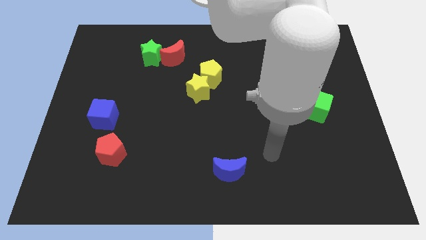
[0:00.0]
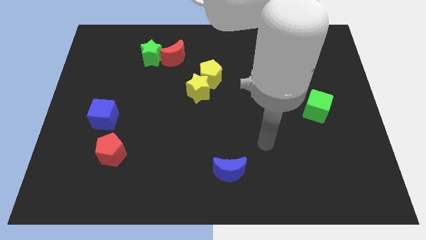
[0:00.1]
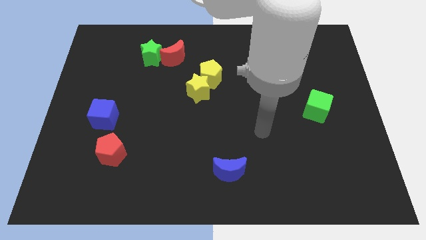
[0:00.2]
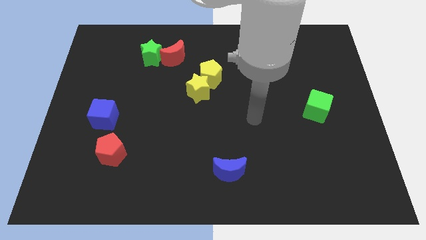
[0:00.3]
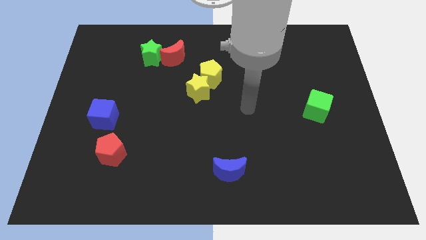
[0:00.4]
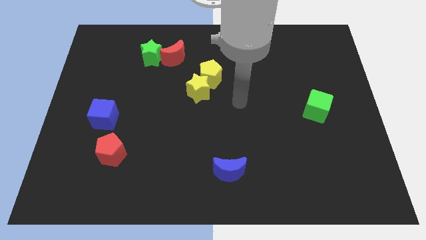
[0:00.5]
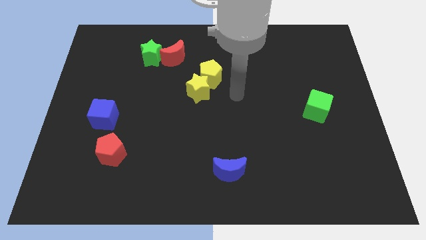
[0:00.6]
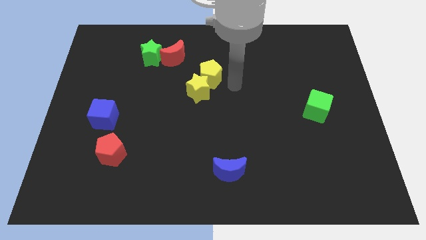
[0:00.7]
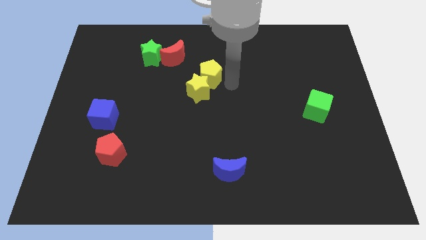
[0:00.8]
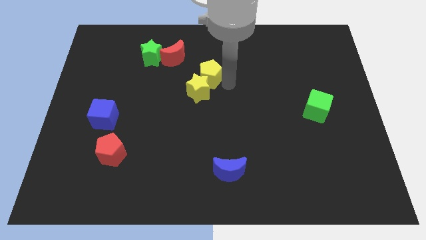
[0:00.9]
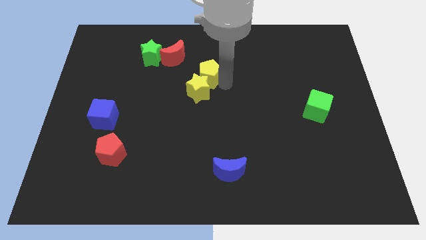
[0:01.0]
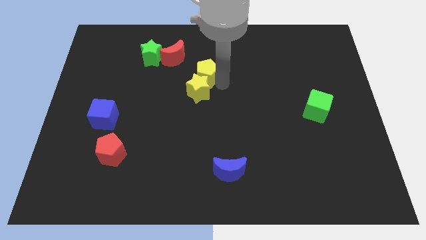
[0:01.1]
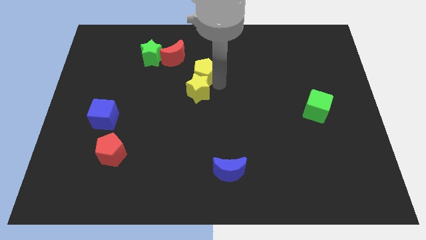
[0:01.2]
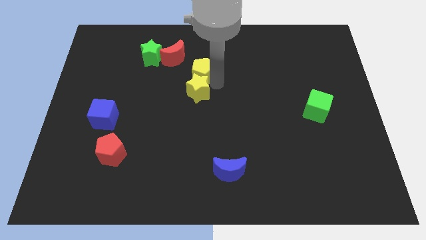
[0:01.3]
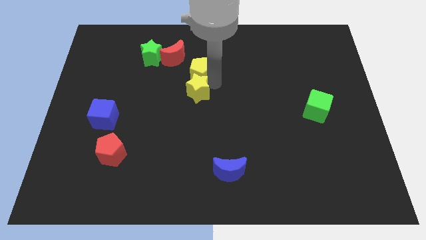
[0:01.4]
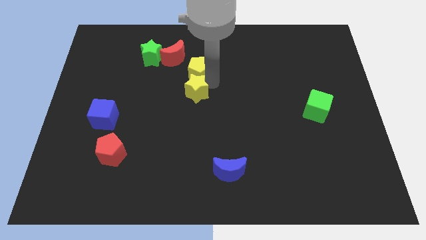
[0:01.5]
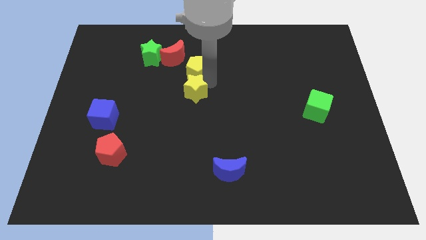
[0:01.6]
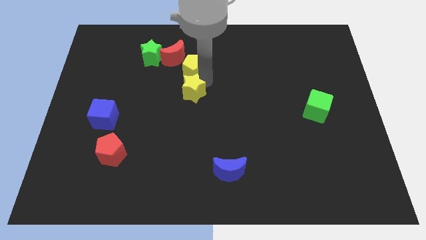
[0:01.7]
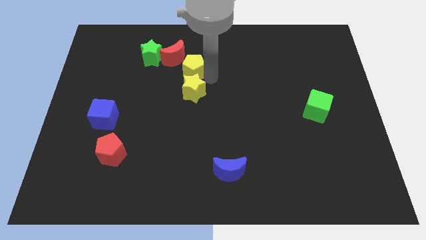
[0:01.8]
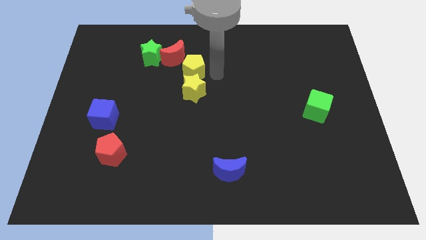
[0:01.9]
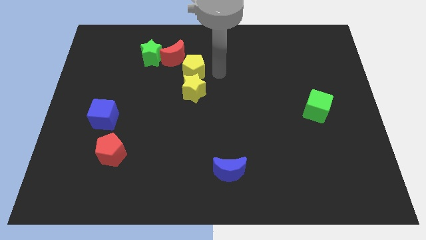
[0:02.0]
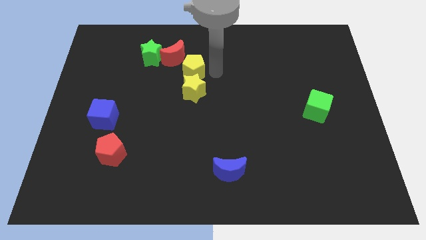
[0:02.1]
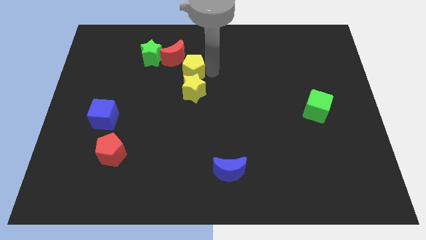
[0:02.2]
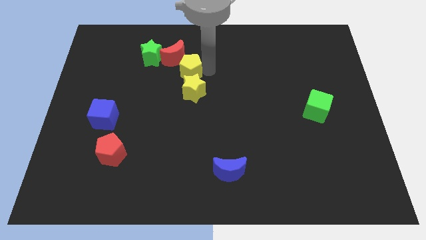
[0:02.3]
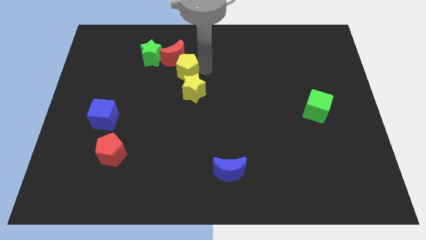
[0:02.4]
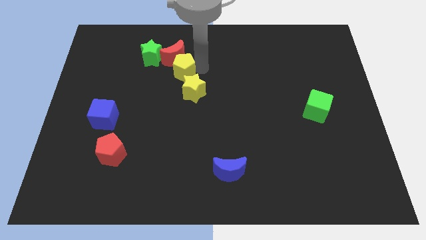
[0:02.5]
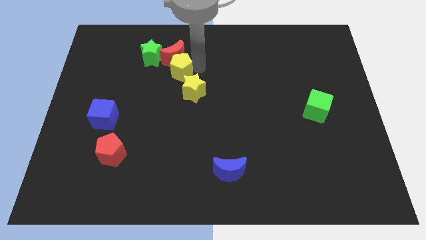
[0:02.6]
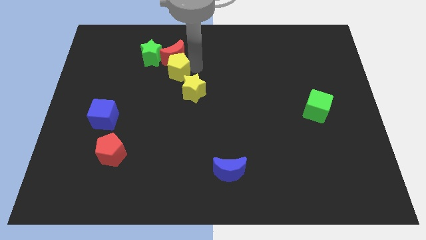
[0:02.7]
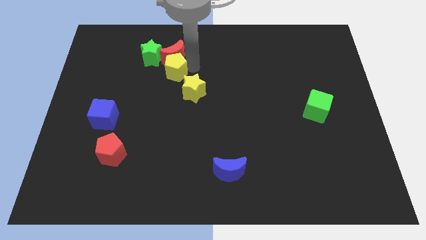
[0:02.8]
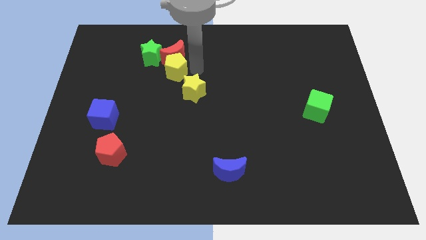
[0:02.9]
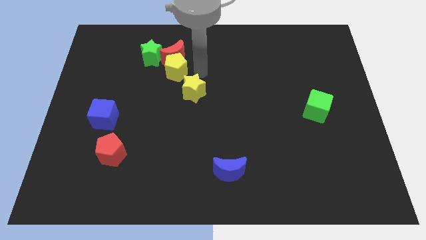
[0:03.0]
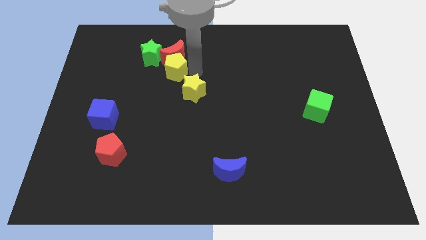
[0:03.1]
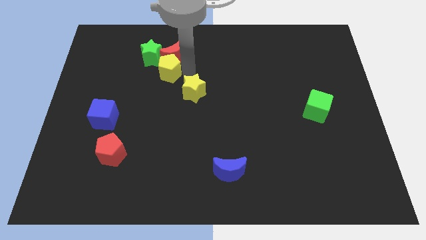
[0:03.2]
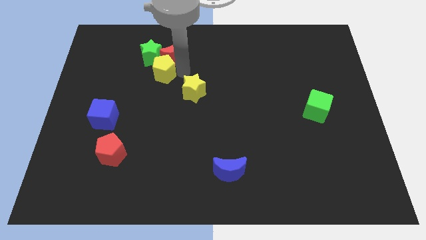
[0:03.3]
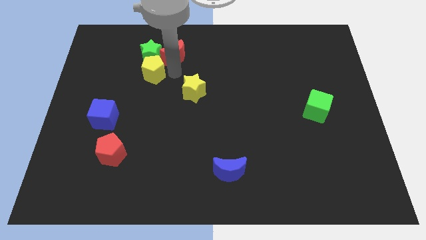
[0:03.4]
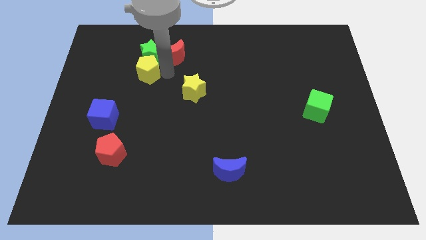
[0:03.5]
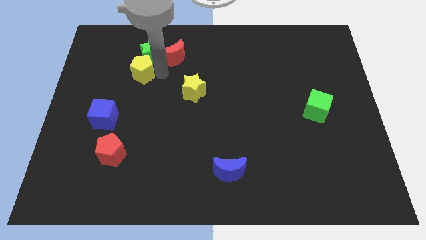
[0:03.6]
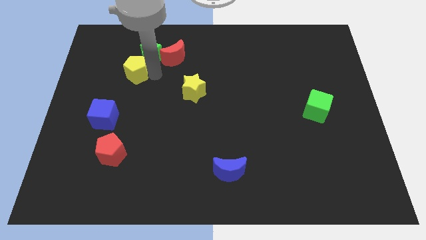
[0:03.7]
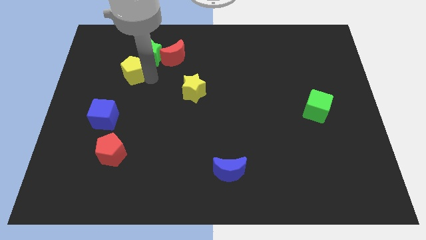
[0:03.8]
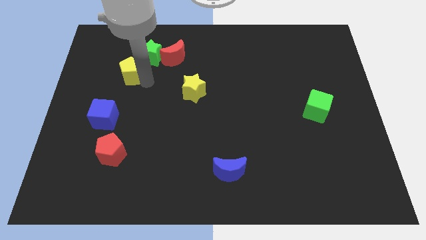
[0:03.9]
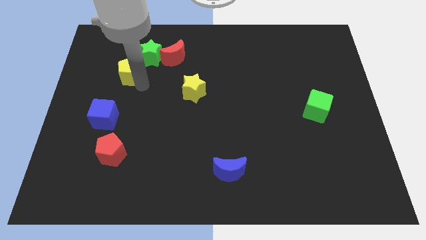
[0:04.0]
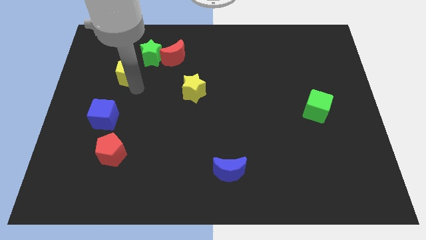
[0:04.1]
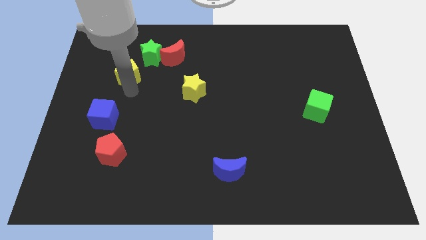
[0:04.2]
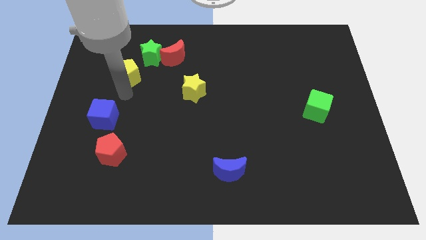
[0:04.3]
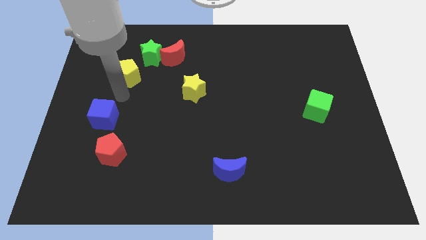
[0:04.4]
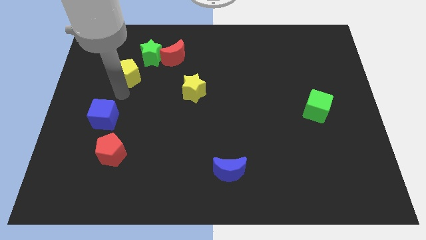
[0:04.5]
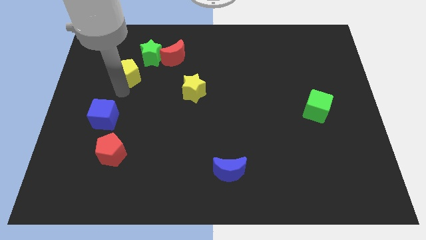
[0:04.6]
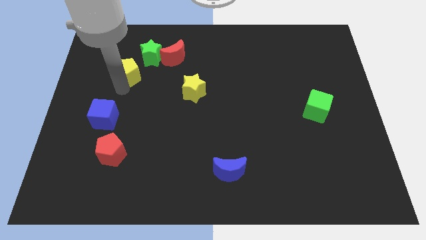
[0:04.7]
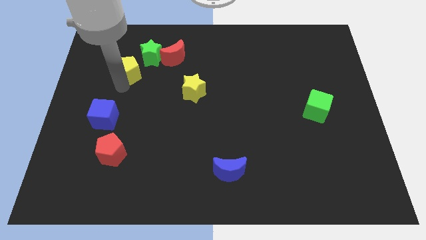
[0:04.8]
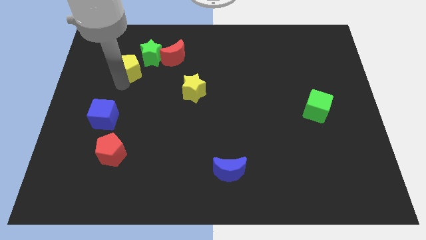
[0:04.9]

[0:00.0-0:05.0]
slide the yellow pentagon just left of the red moon

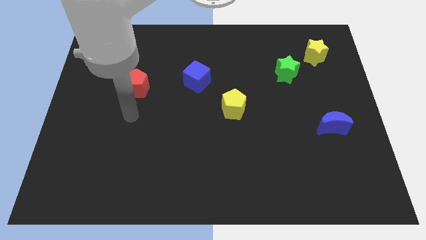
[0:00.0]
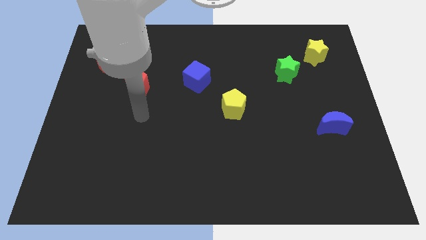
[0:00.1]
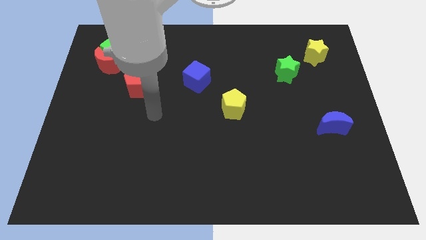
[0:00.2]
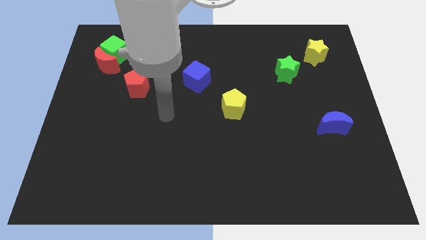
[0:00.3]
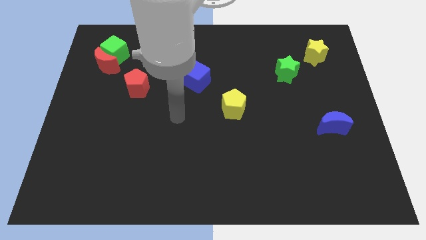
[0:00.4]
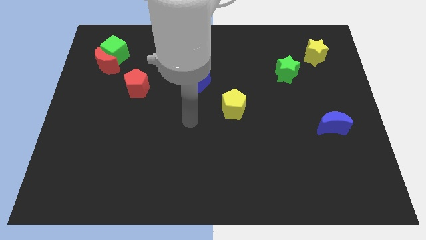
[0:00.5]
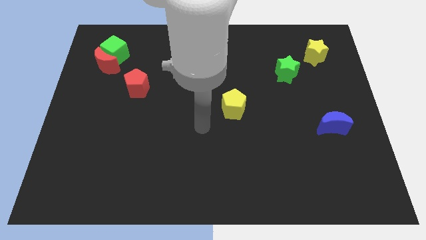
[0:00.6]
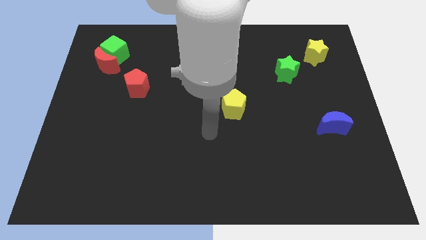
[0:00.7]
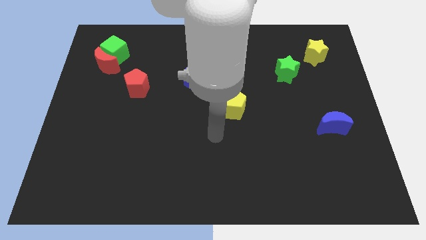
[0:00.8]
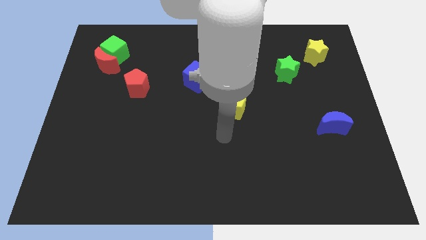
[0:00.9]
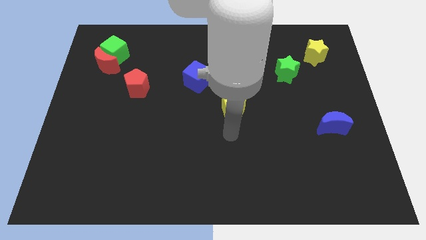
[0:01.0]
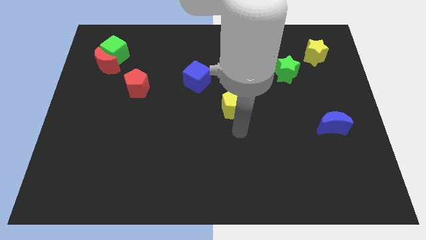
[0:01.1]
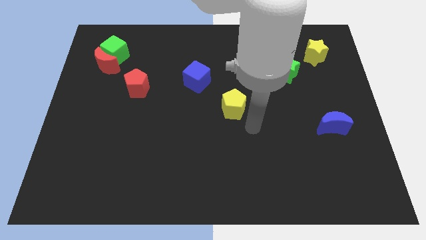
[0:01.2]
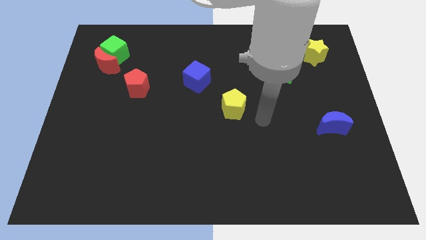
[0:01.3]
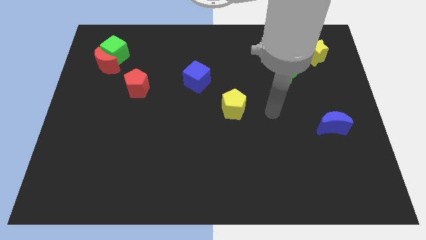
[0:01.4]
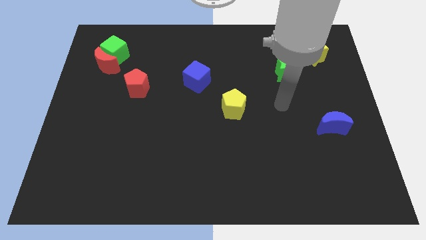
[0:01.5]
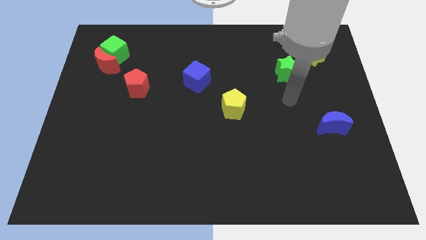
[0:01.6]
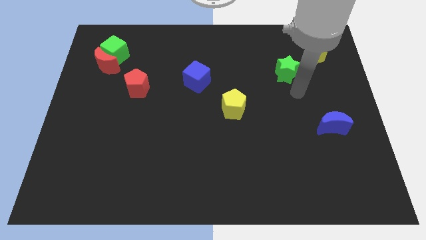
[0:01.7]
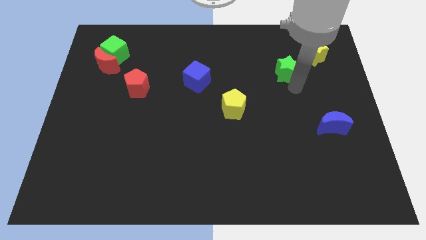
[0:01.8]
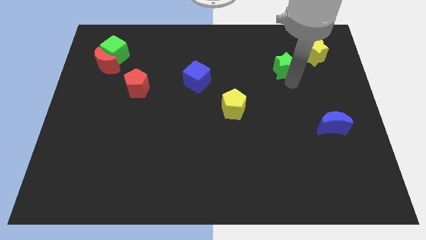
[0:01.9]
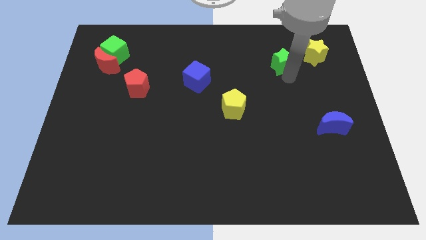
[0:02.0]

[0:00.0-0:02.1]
move the green star to the left of the yellow star
